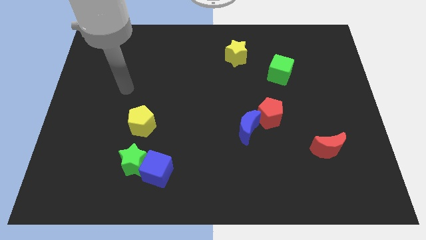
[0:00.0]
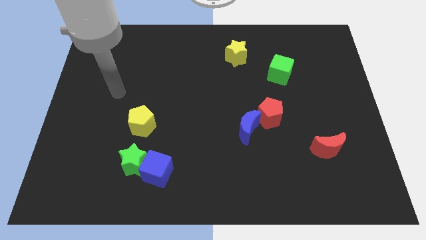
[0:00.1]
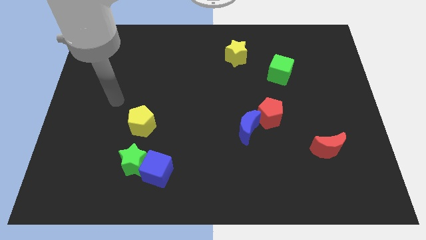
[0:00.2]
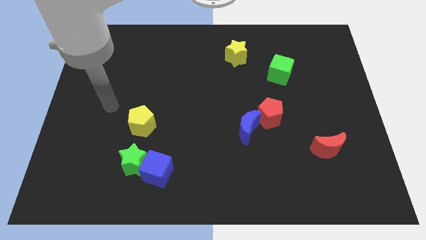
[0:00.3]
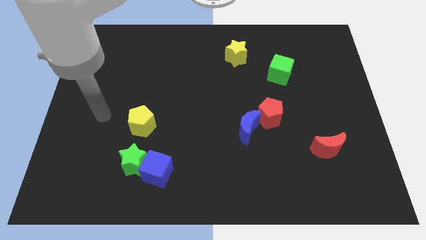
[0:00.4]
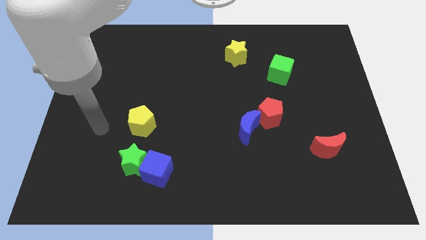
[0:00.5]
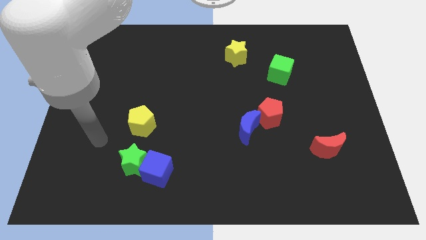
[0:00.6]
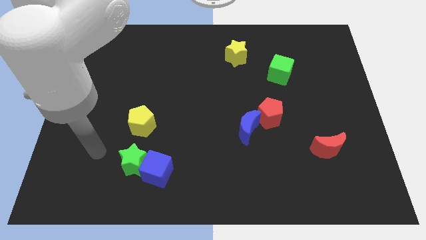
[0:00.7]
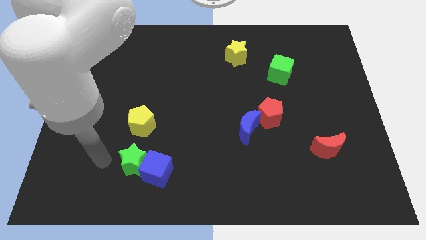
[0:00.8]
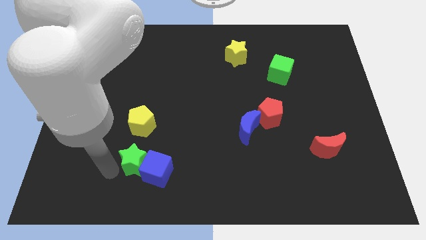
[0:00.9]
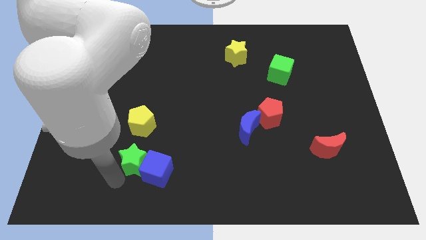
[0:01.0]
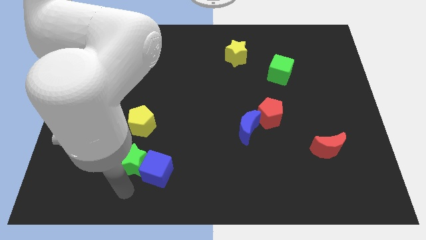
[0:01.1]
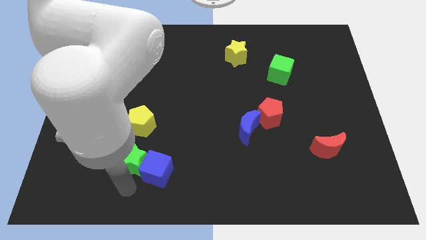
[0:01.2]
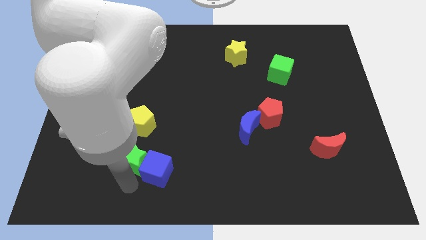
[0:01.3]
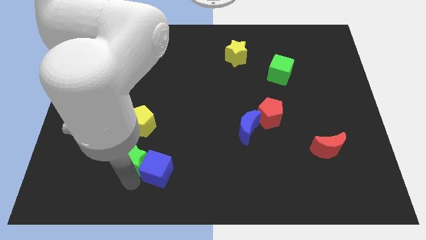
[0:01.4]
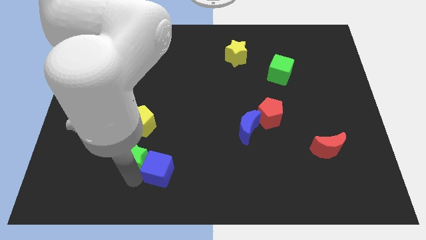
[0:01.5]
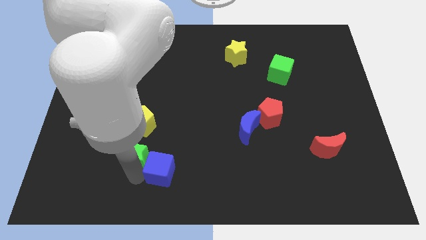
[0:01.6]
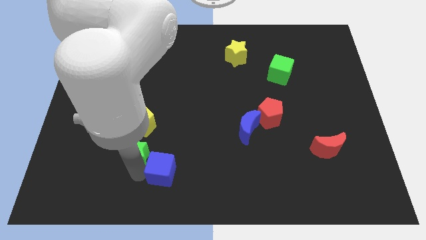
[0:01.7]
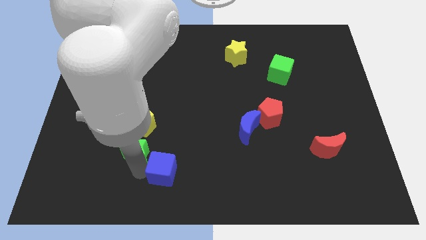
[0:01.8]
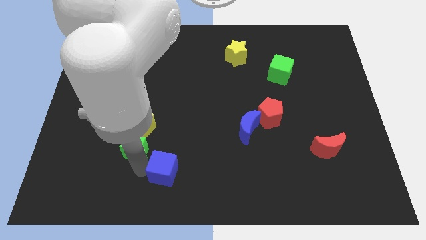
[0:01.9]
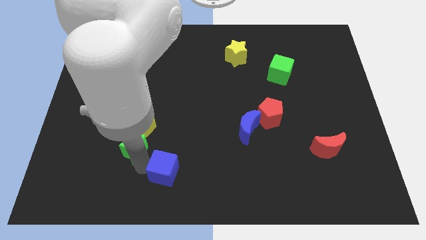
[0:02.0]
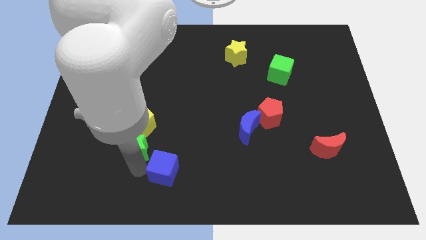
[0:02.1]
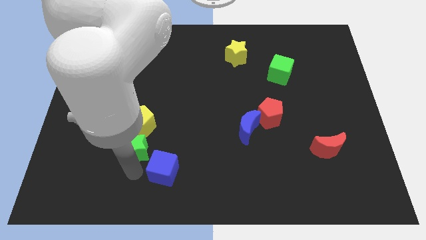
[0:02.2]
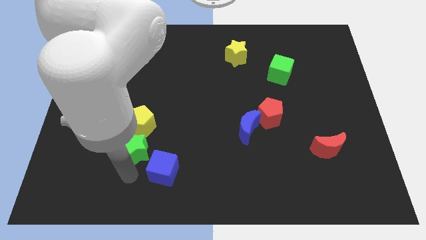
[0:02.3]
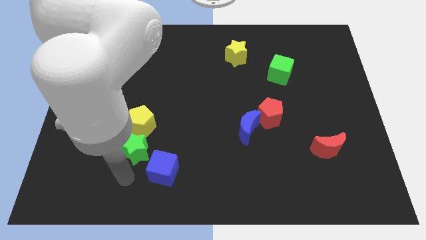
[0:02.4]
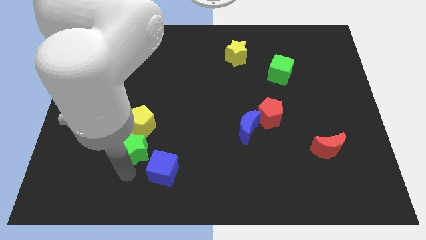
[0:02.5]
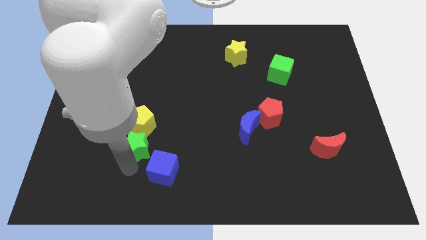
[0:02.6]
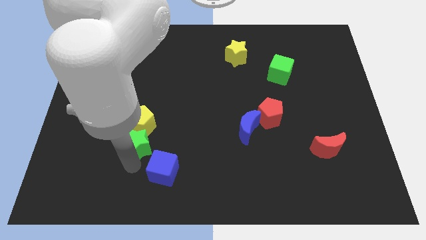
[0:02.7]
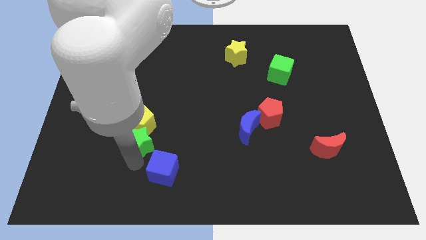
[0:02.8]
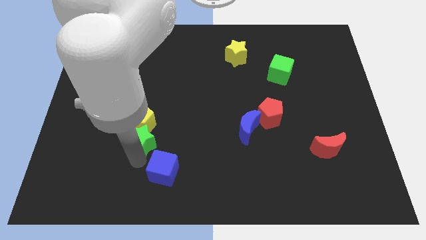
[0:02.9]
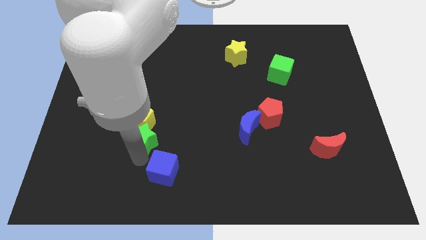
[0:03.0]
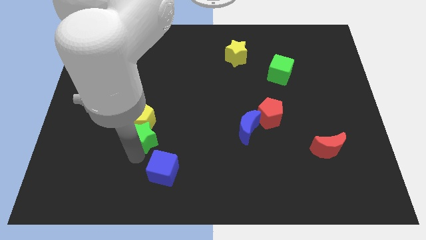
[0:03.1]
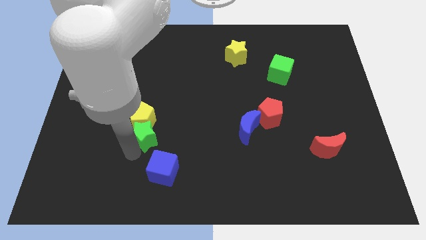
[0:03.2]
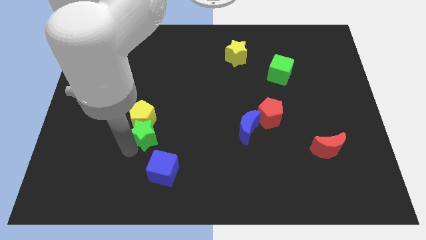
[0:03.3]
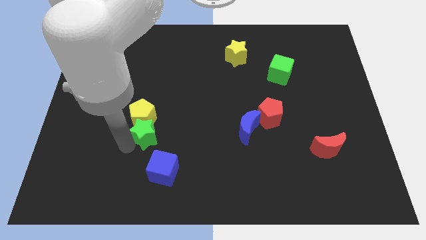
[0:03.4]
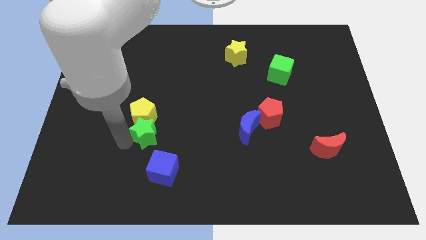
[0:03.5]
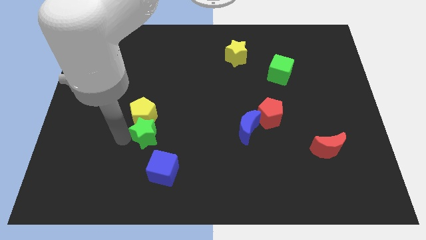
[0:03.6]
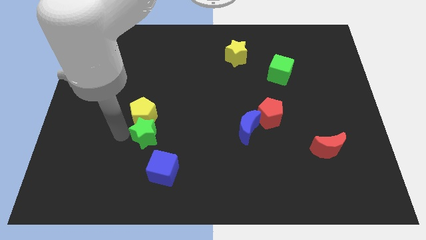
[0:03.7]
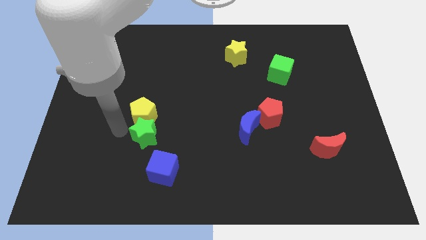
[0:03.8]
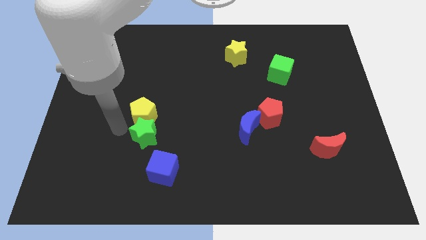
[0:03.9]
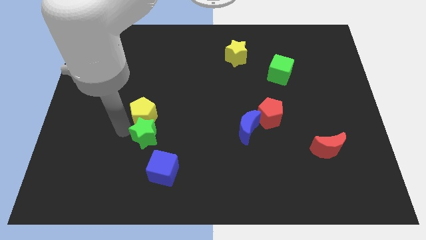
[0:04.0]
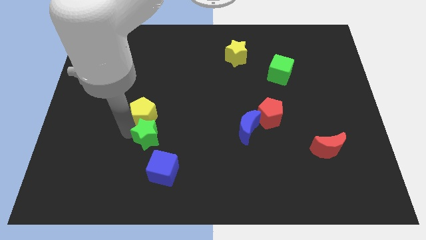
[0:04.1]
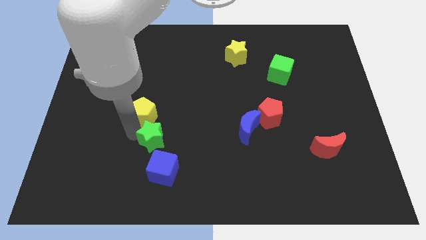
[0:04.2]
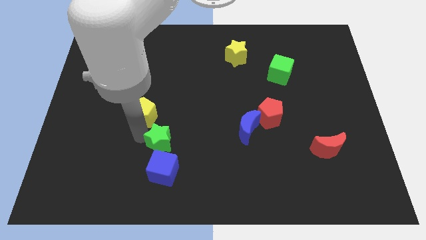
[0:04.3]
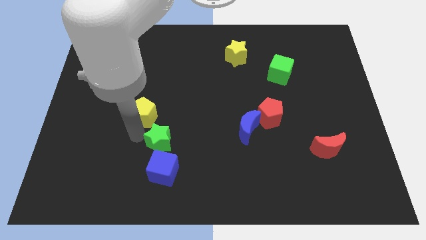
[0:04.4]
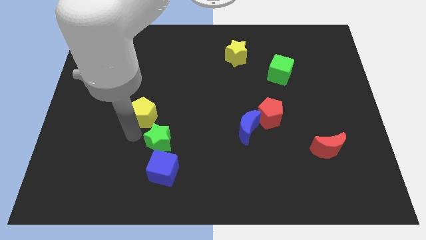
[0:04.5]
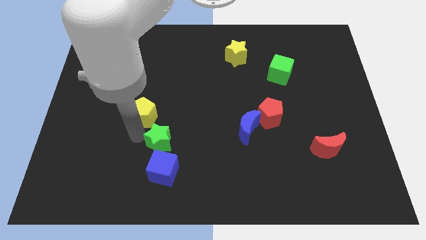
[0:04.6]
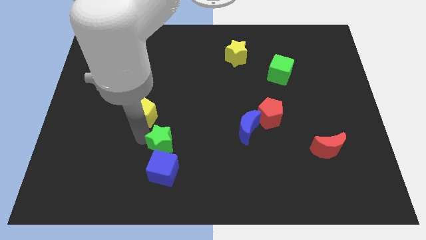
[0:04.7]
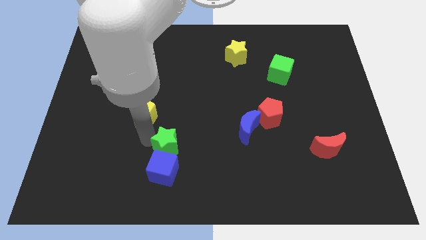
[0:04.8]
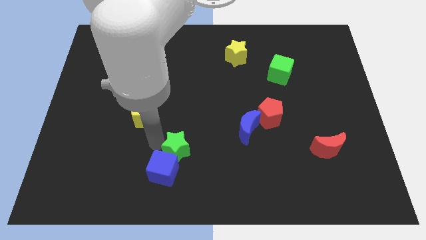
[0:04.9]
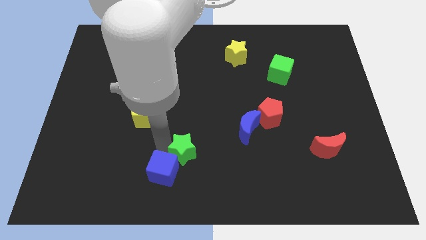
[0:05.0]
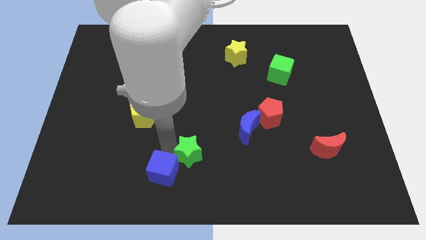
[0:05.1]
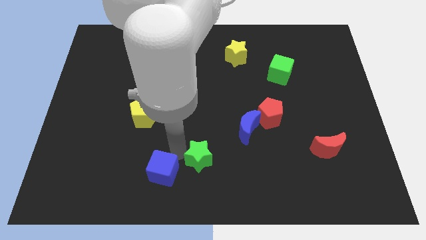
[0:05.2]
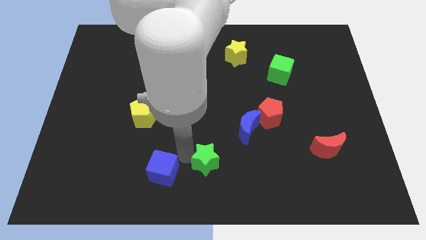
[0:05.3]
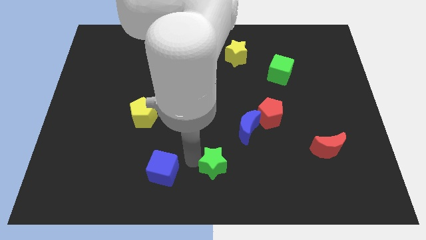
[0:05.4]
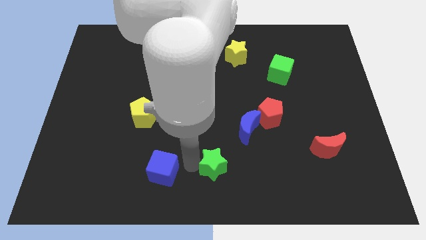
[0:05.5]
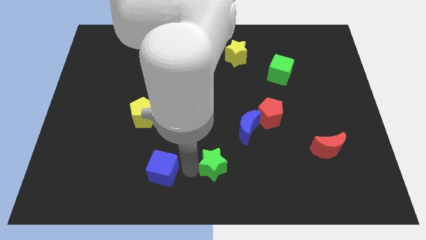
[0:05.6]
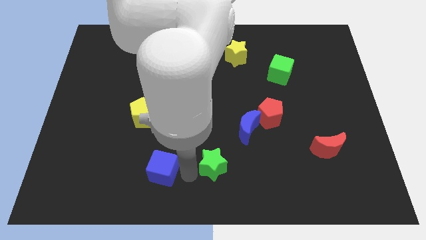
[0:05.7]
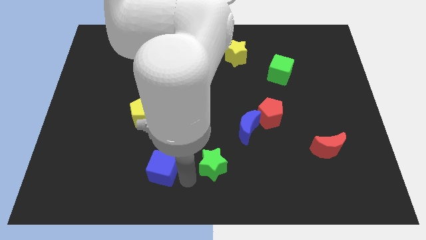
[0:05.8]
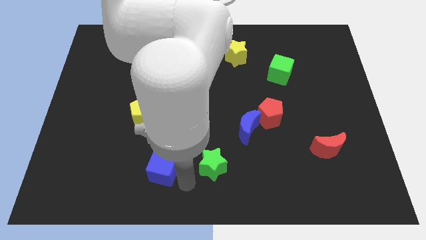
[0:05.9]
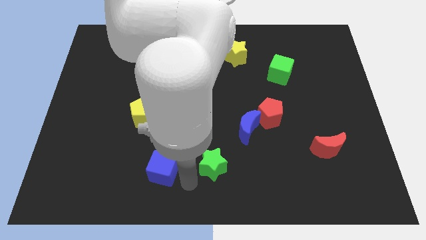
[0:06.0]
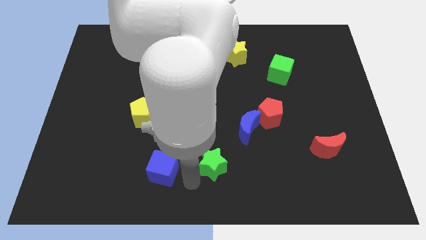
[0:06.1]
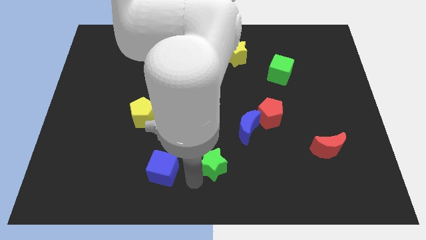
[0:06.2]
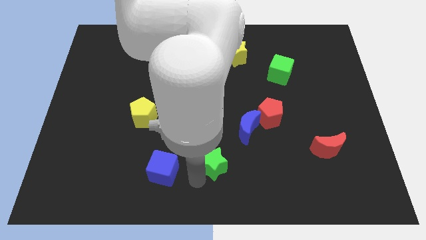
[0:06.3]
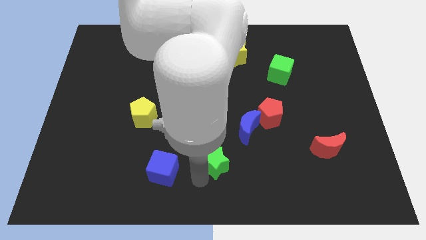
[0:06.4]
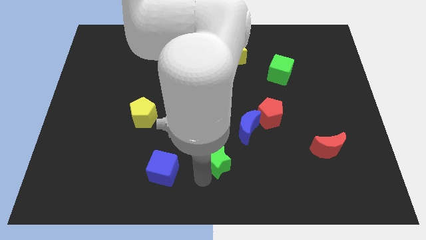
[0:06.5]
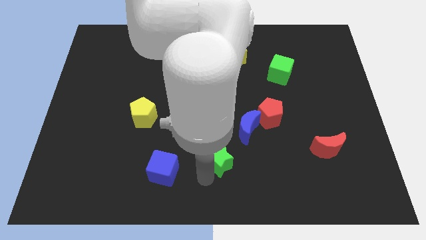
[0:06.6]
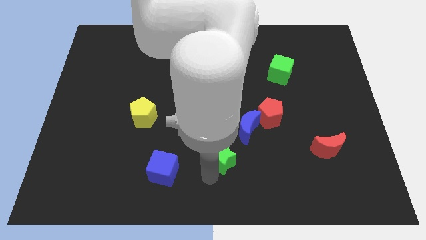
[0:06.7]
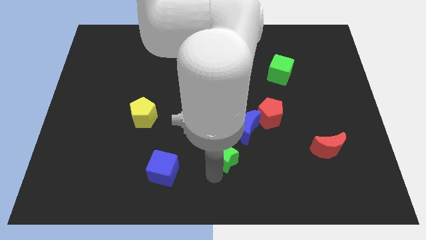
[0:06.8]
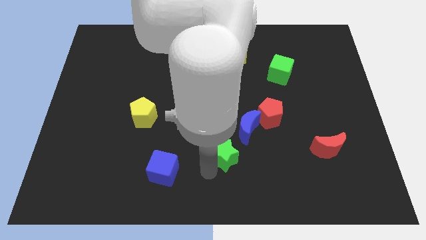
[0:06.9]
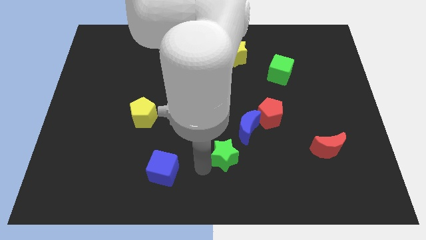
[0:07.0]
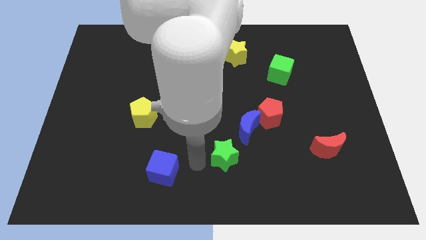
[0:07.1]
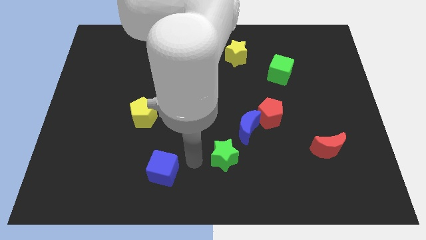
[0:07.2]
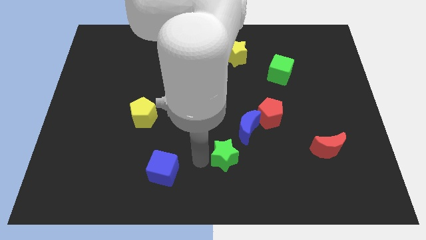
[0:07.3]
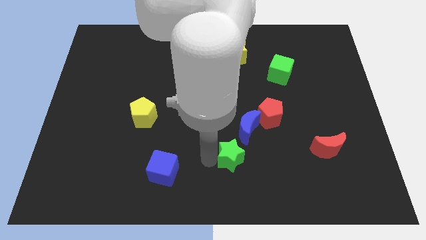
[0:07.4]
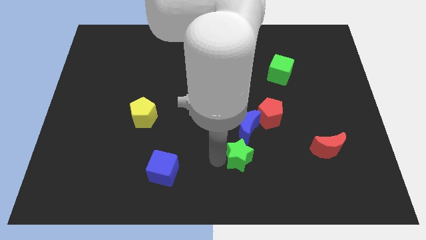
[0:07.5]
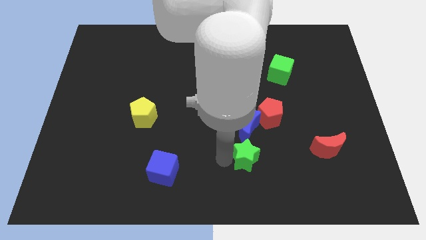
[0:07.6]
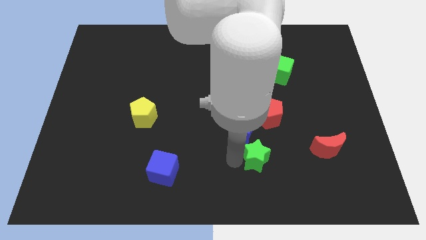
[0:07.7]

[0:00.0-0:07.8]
move the green star to the left side of the red moon
